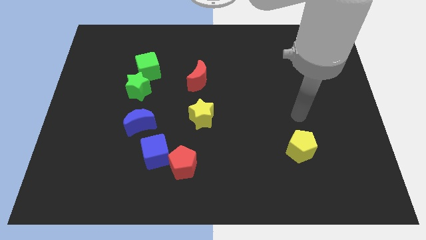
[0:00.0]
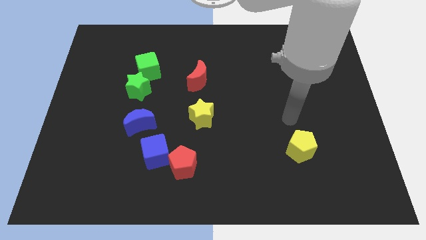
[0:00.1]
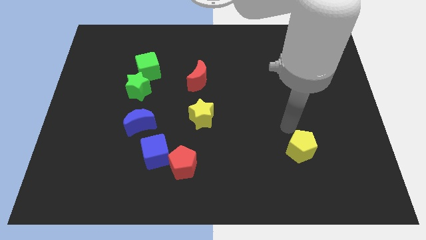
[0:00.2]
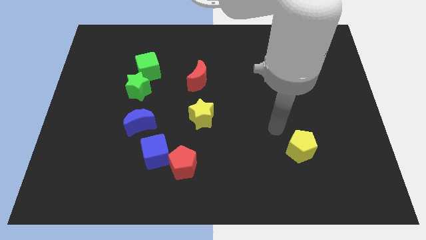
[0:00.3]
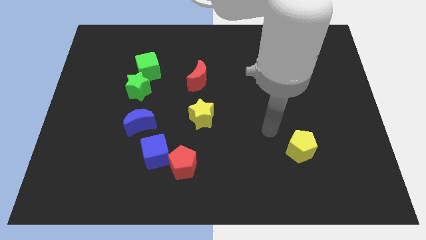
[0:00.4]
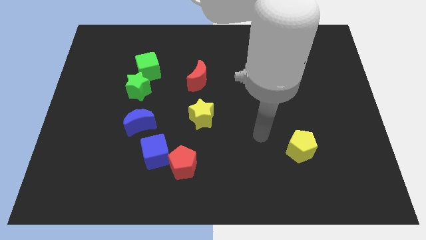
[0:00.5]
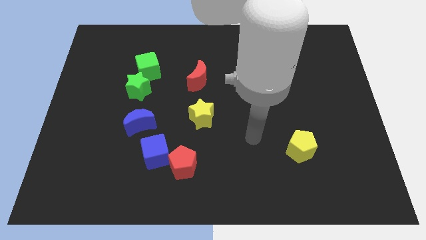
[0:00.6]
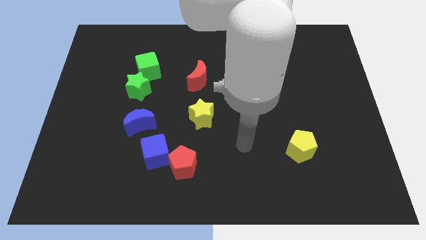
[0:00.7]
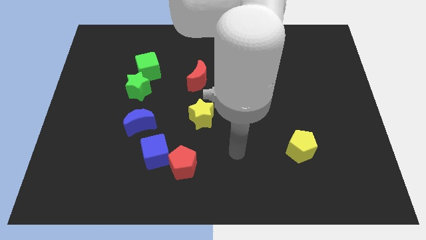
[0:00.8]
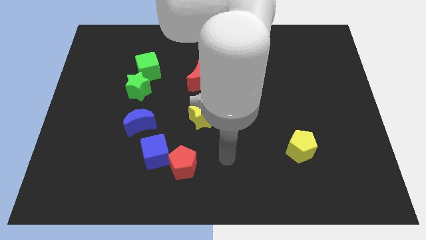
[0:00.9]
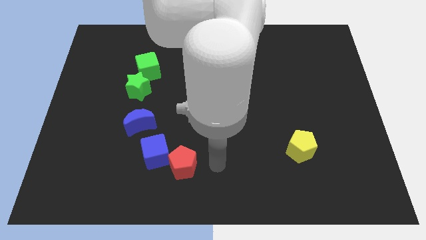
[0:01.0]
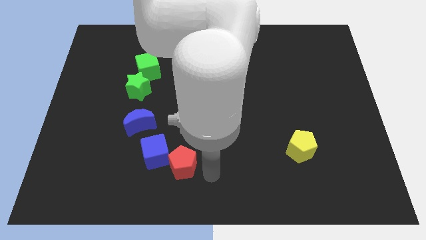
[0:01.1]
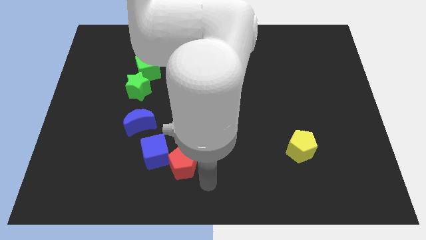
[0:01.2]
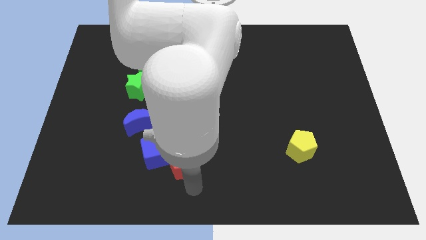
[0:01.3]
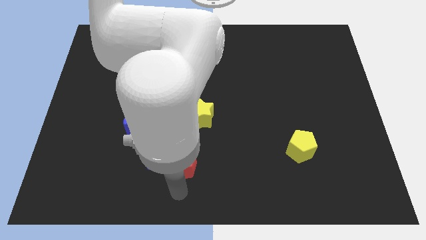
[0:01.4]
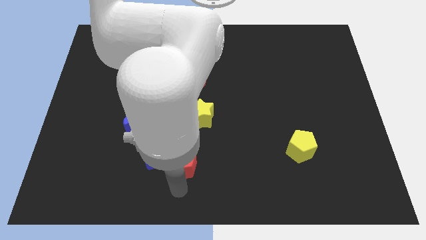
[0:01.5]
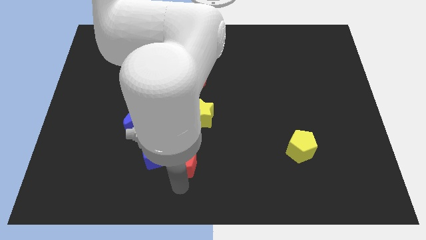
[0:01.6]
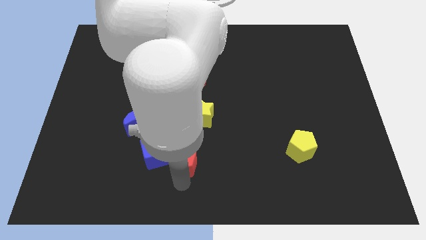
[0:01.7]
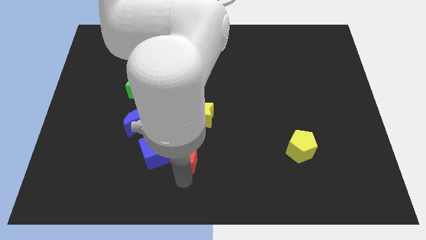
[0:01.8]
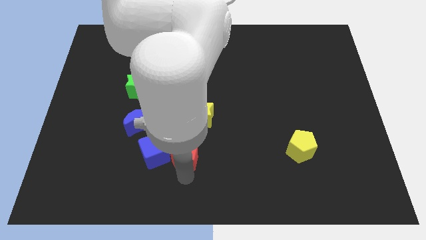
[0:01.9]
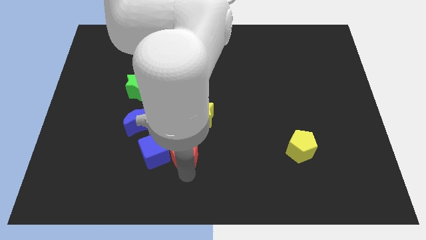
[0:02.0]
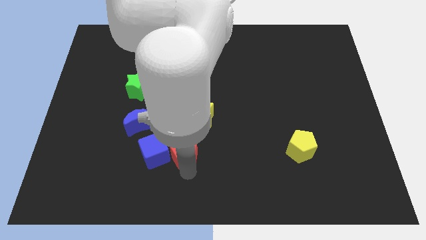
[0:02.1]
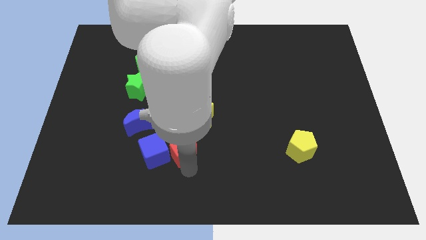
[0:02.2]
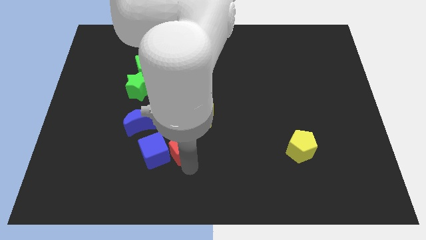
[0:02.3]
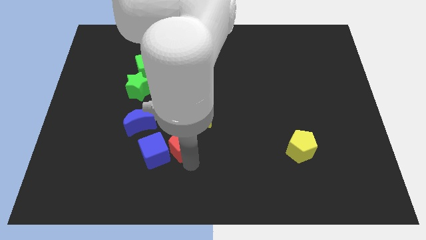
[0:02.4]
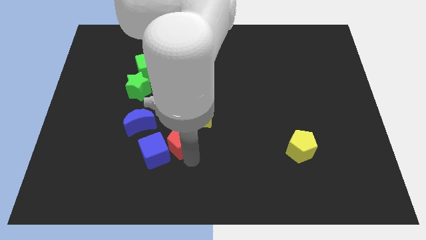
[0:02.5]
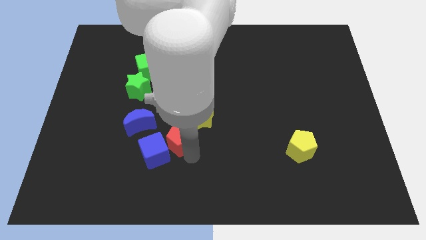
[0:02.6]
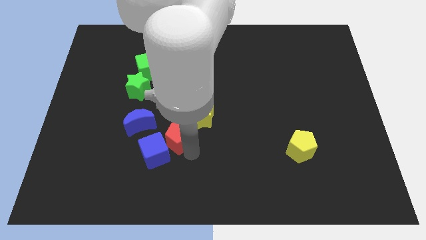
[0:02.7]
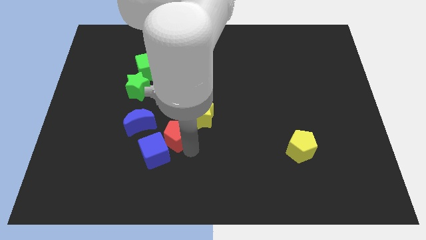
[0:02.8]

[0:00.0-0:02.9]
move the red pentagon a bit upwards

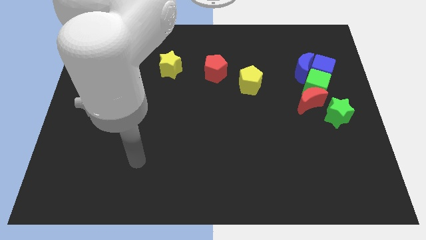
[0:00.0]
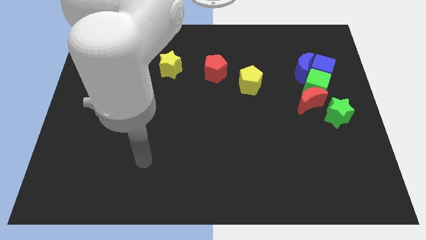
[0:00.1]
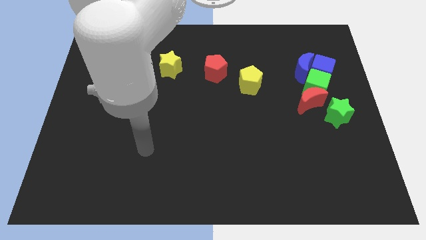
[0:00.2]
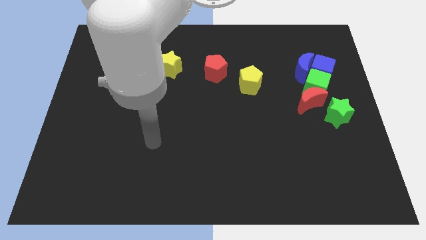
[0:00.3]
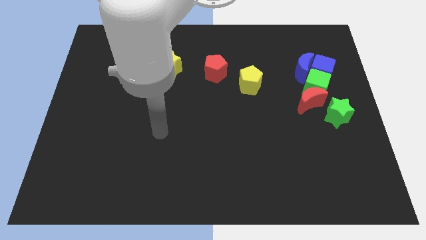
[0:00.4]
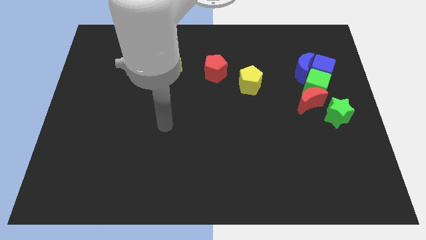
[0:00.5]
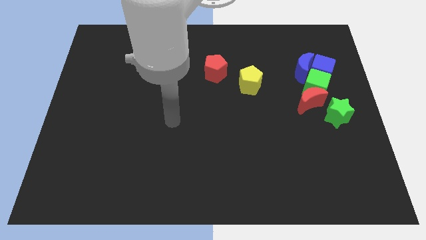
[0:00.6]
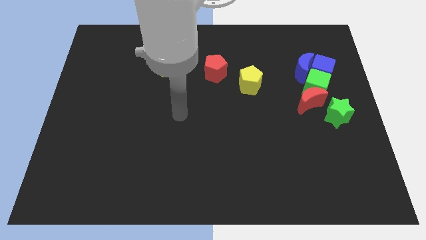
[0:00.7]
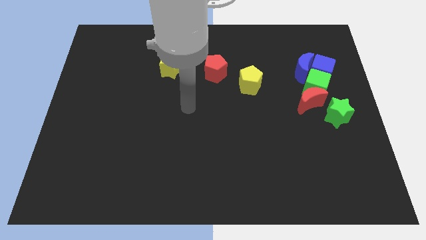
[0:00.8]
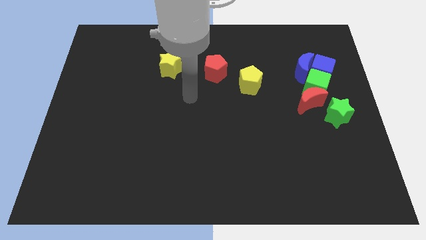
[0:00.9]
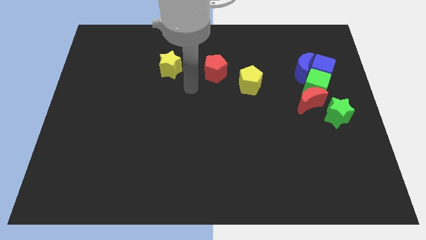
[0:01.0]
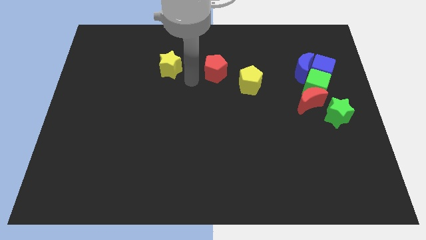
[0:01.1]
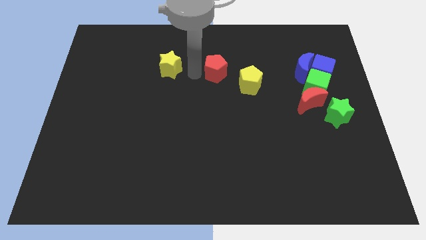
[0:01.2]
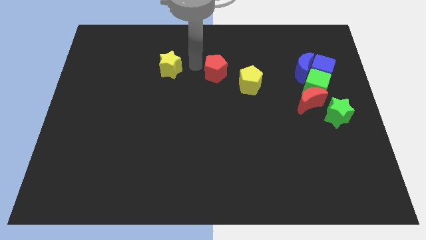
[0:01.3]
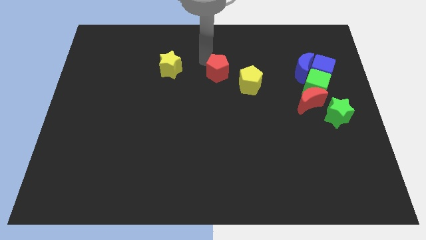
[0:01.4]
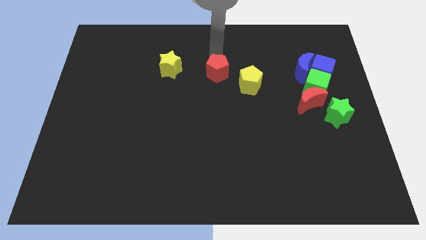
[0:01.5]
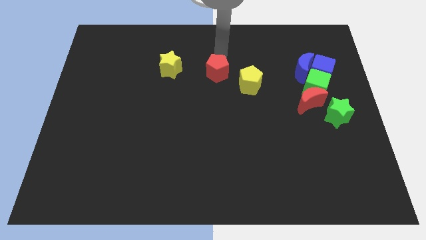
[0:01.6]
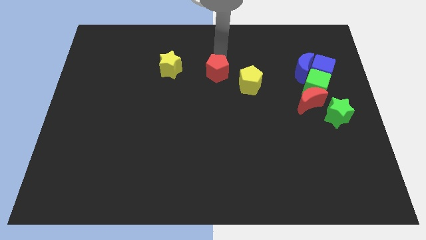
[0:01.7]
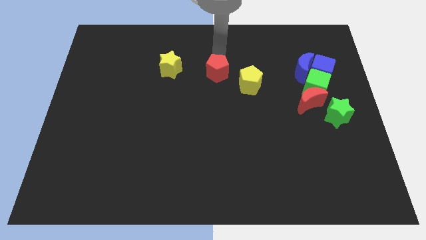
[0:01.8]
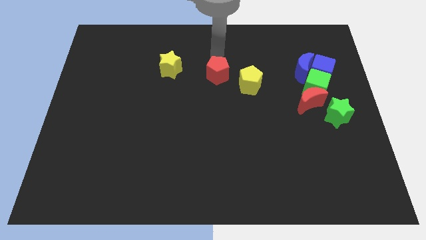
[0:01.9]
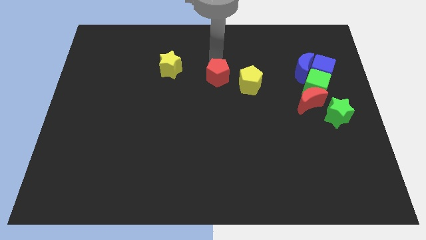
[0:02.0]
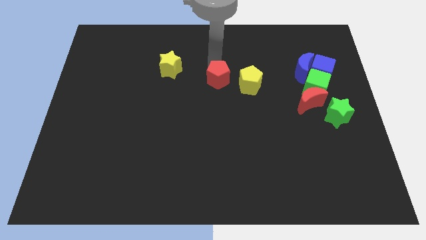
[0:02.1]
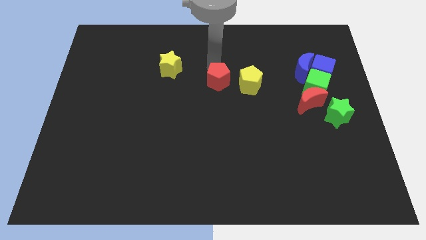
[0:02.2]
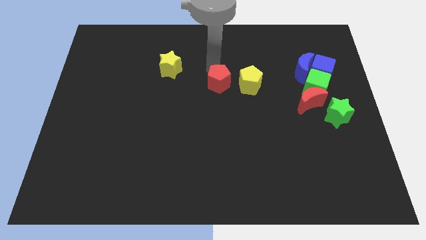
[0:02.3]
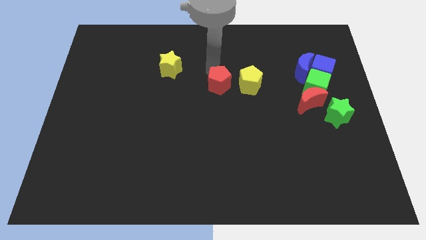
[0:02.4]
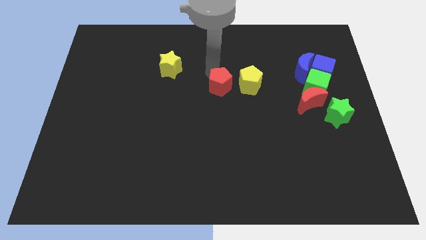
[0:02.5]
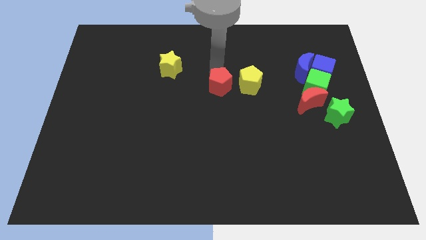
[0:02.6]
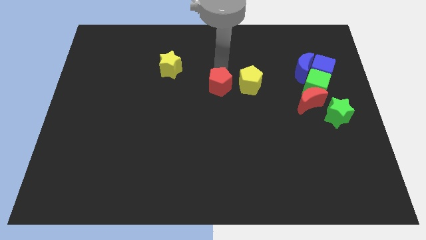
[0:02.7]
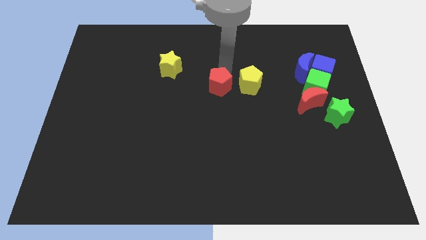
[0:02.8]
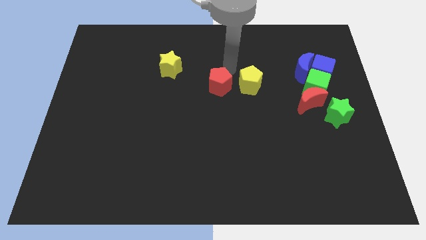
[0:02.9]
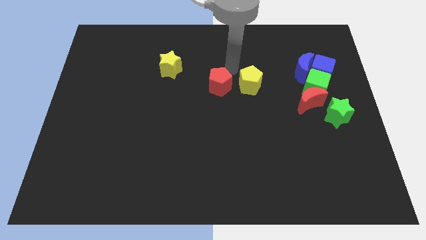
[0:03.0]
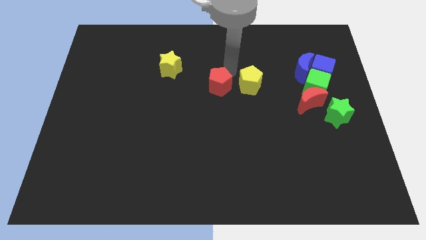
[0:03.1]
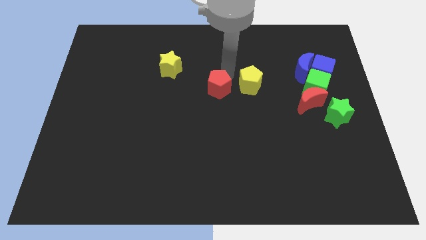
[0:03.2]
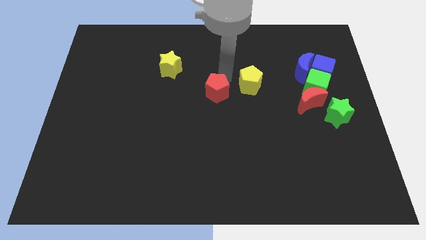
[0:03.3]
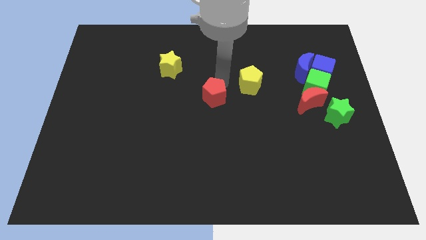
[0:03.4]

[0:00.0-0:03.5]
slightly push the red pentagon down

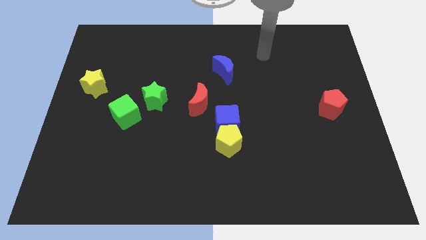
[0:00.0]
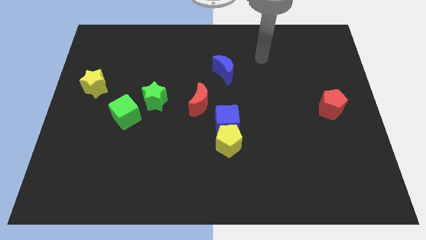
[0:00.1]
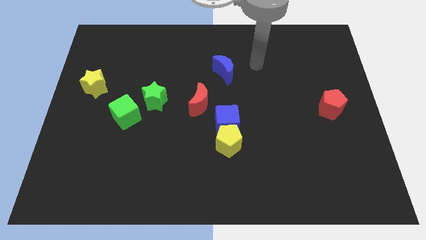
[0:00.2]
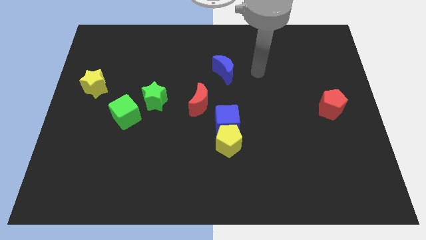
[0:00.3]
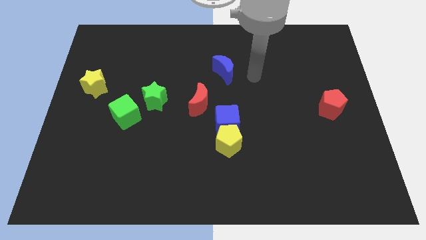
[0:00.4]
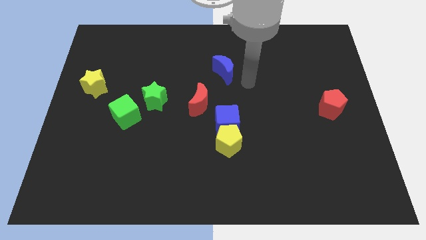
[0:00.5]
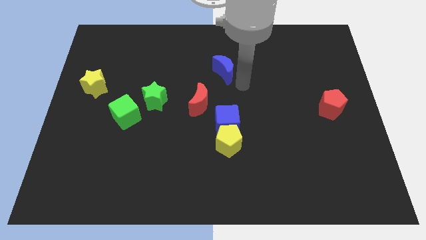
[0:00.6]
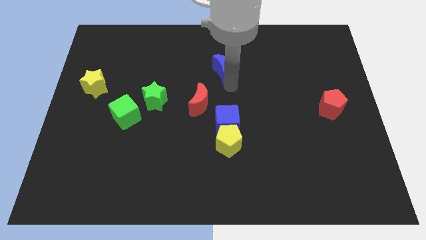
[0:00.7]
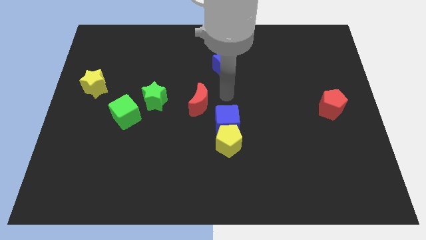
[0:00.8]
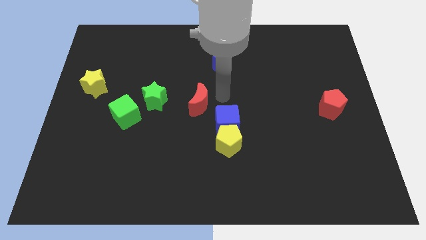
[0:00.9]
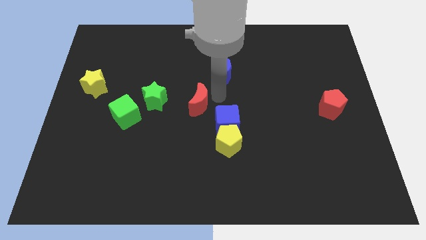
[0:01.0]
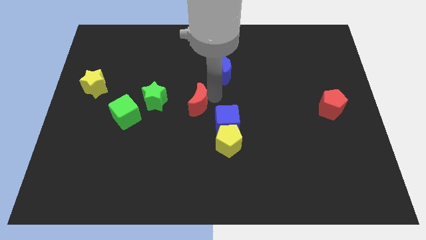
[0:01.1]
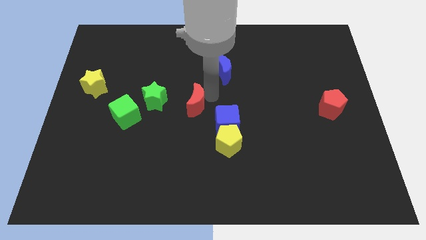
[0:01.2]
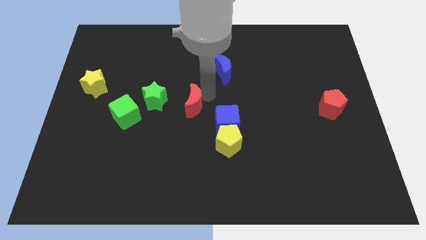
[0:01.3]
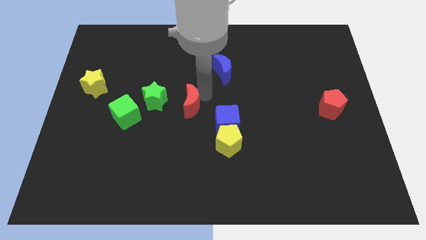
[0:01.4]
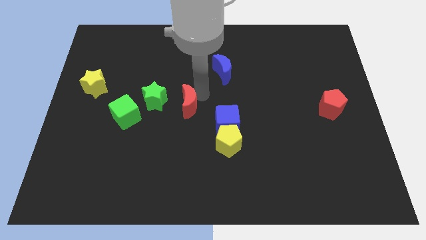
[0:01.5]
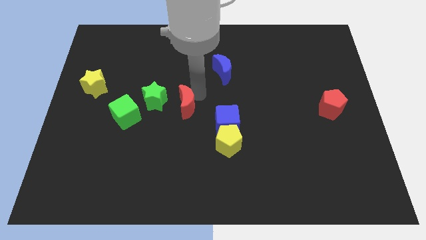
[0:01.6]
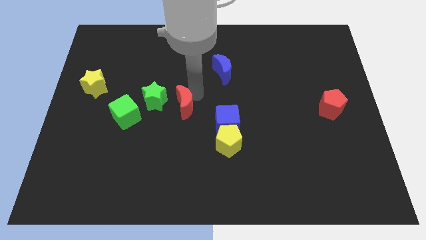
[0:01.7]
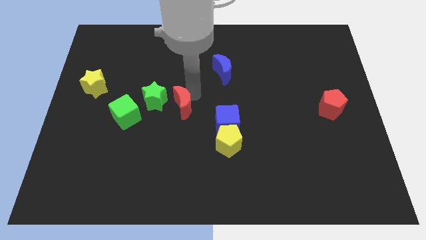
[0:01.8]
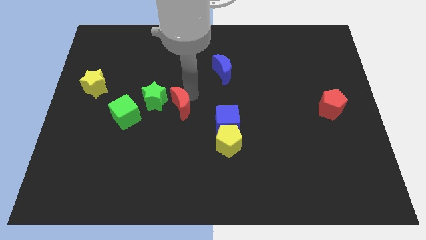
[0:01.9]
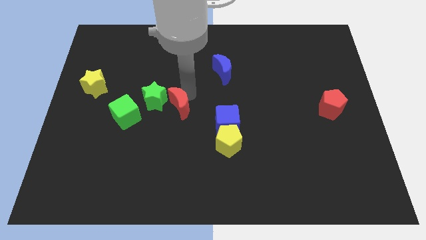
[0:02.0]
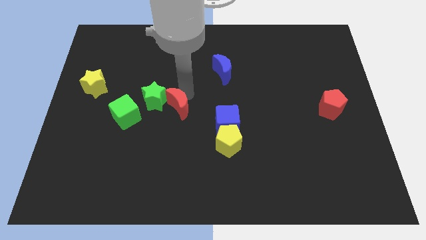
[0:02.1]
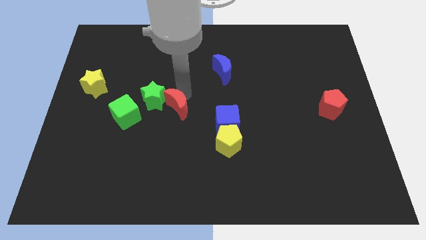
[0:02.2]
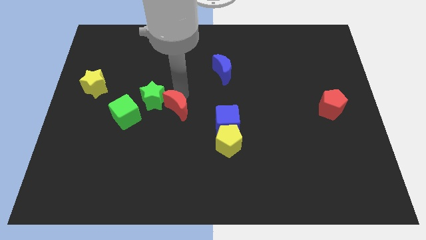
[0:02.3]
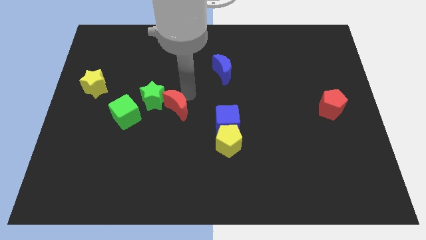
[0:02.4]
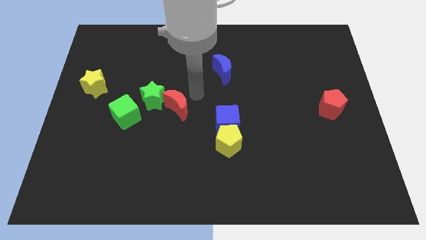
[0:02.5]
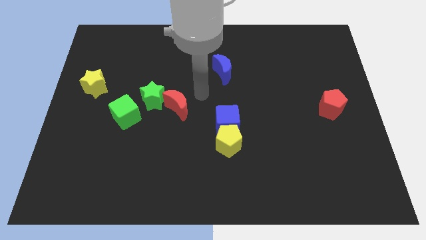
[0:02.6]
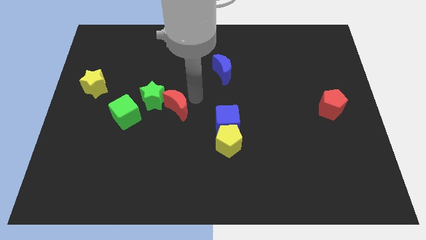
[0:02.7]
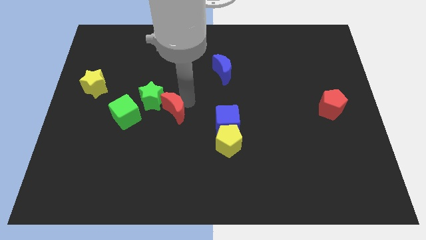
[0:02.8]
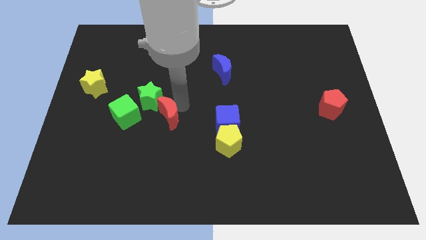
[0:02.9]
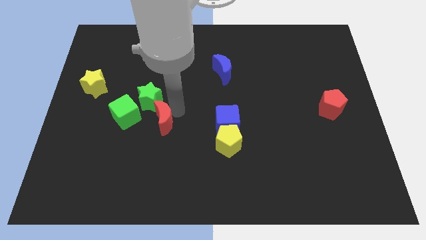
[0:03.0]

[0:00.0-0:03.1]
slide the red moon left a little bit
